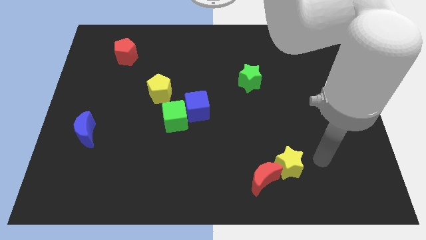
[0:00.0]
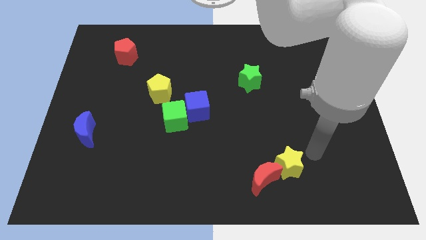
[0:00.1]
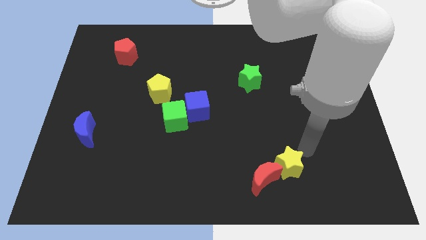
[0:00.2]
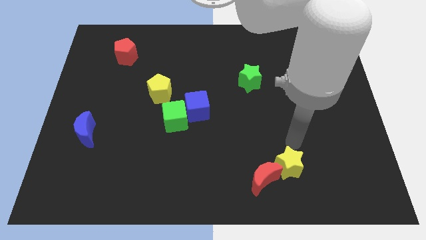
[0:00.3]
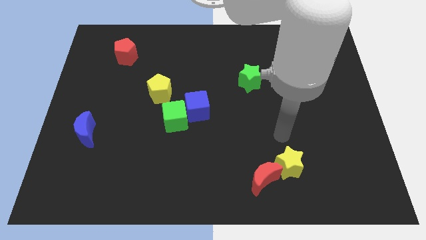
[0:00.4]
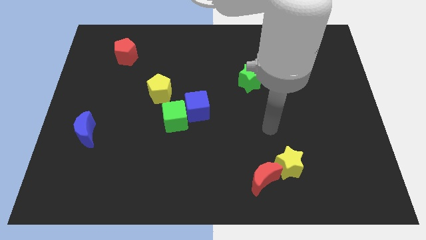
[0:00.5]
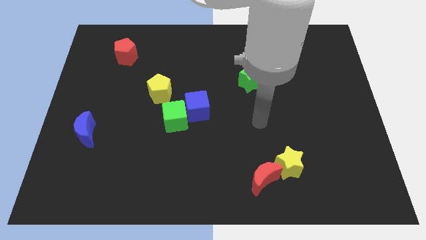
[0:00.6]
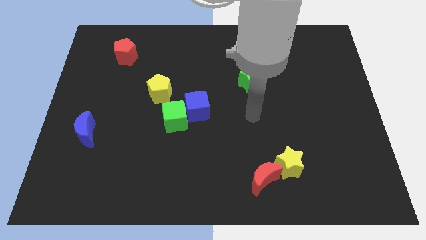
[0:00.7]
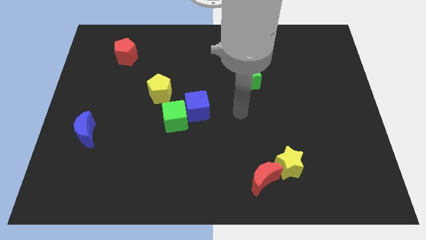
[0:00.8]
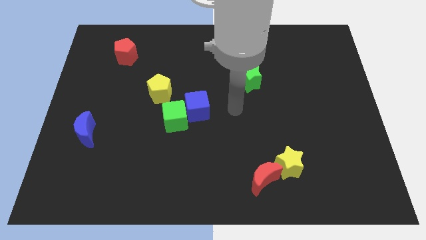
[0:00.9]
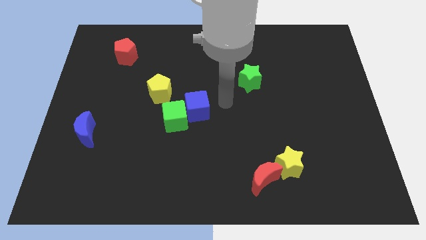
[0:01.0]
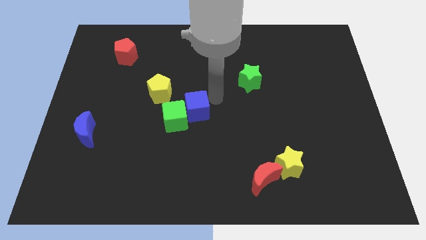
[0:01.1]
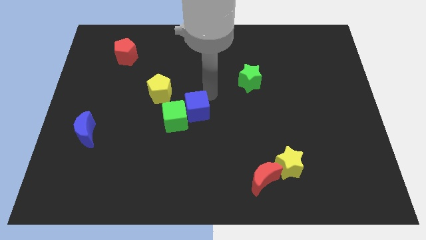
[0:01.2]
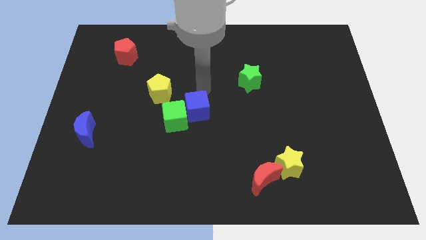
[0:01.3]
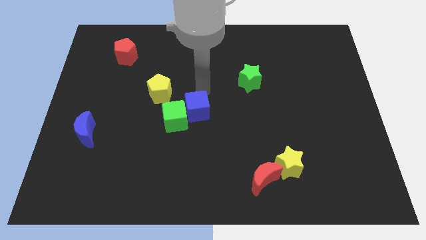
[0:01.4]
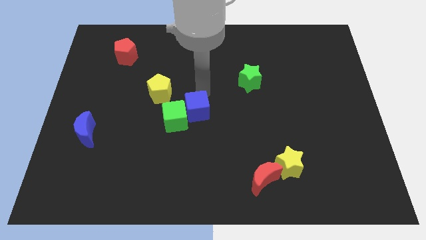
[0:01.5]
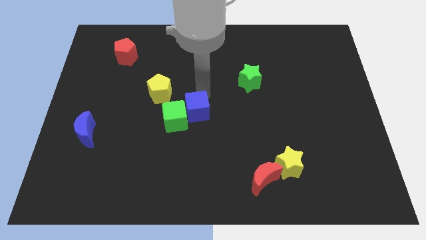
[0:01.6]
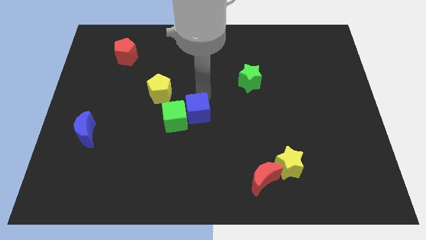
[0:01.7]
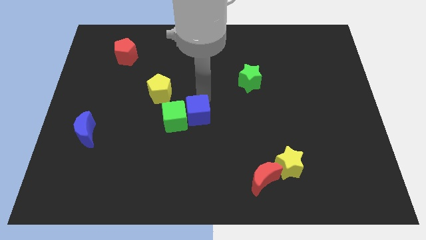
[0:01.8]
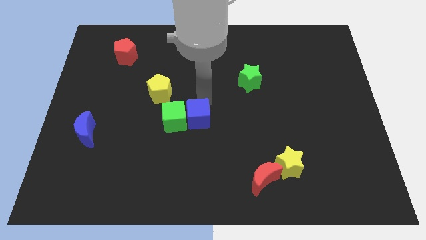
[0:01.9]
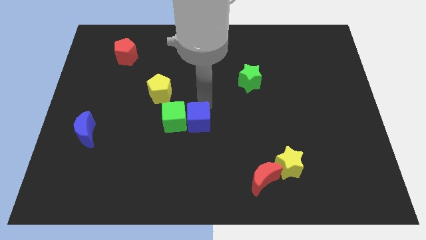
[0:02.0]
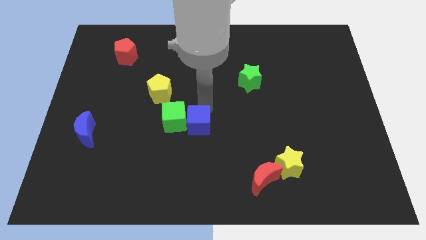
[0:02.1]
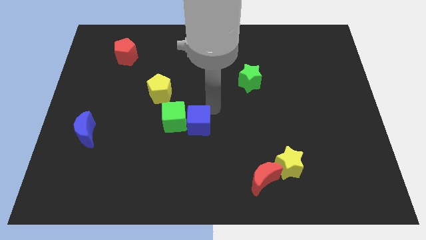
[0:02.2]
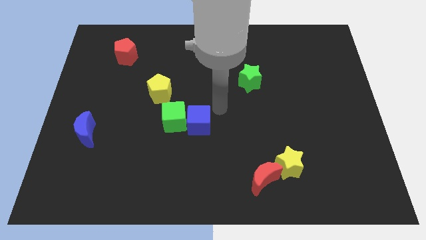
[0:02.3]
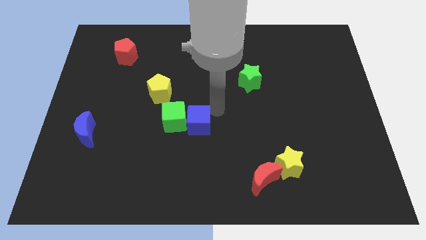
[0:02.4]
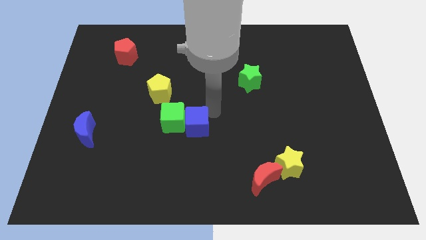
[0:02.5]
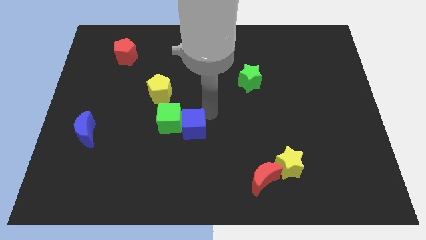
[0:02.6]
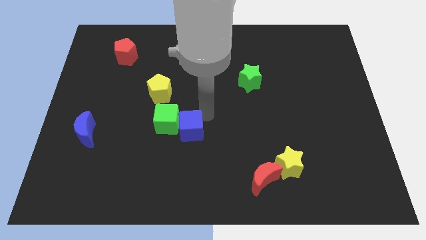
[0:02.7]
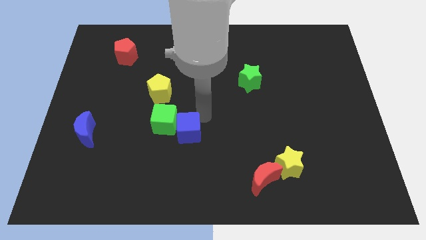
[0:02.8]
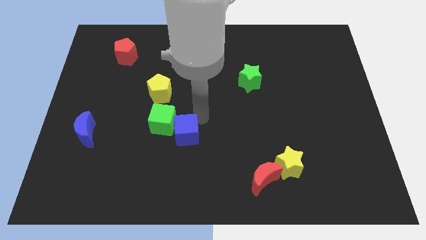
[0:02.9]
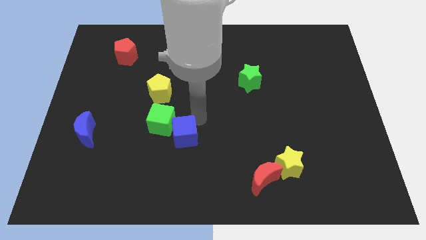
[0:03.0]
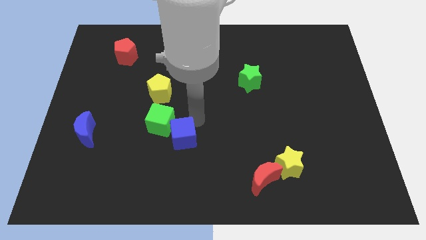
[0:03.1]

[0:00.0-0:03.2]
move the blue cube downwards and then to the left a bit

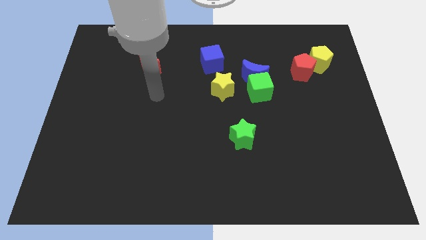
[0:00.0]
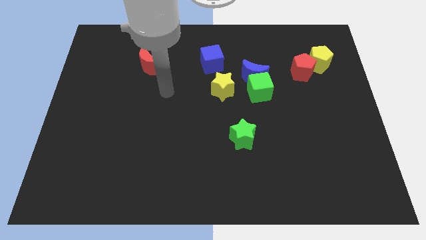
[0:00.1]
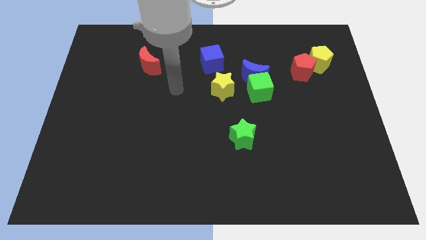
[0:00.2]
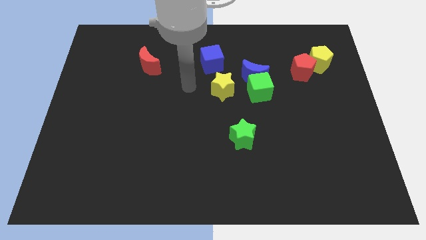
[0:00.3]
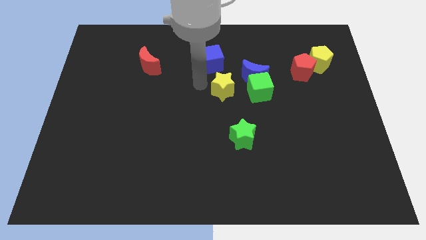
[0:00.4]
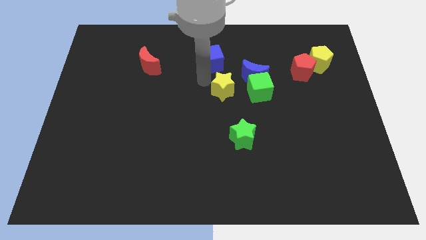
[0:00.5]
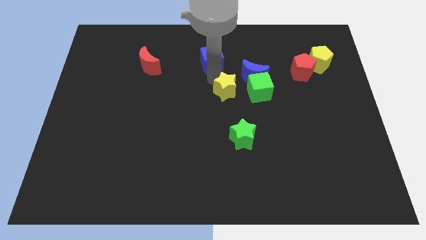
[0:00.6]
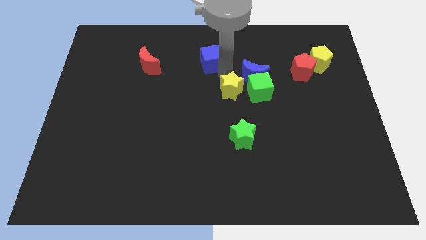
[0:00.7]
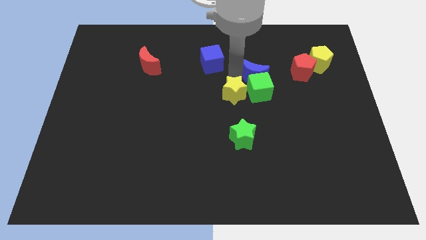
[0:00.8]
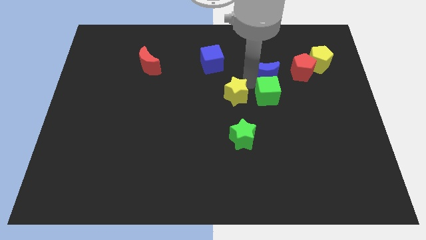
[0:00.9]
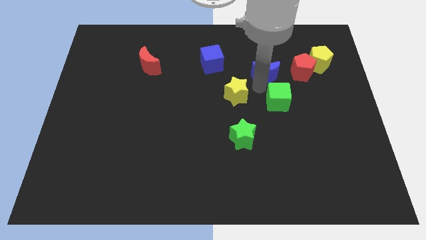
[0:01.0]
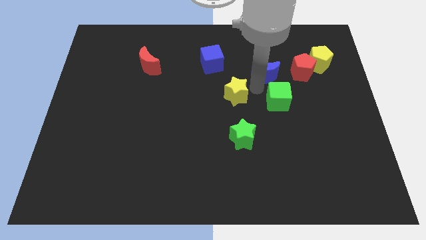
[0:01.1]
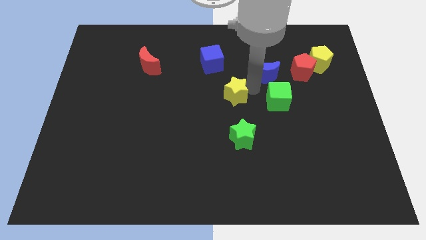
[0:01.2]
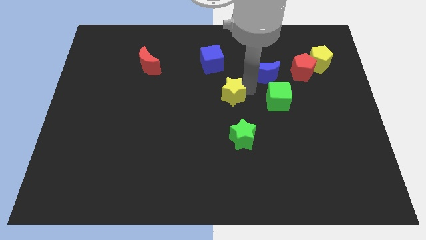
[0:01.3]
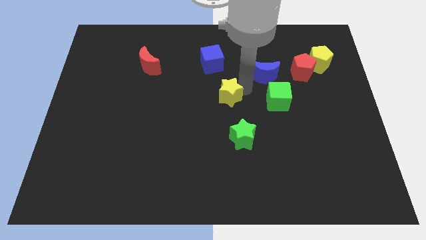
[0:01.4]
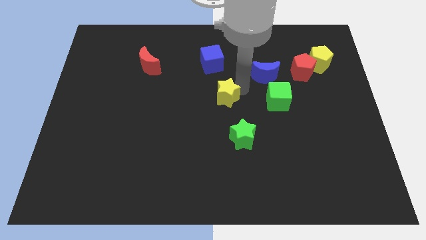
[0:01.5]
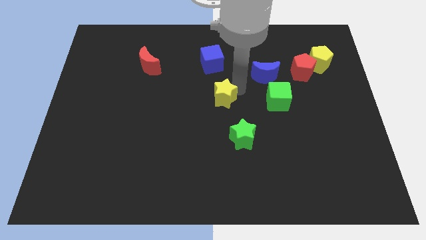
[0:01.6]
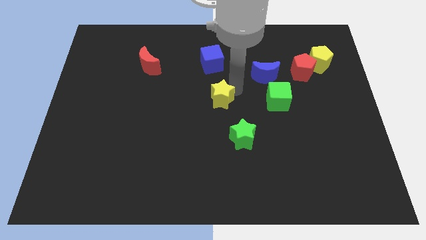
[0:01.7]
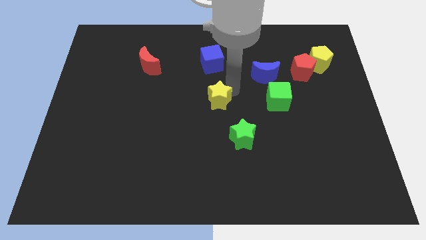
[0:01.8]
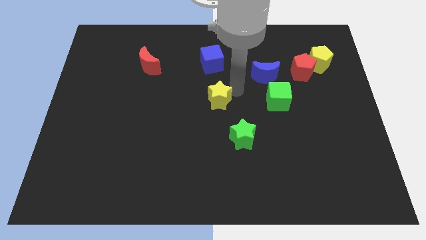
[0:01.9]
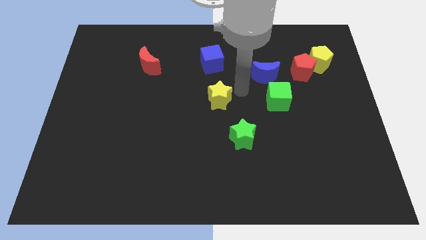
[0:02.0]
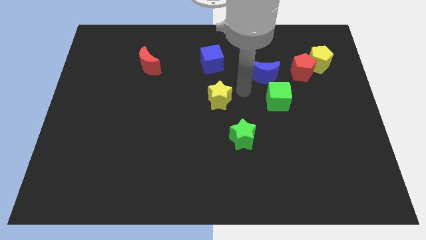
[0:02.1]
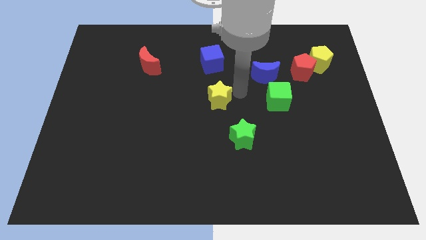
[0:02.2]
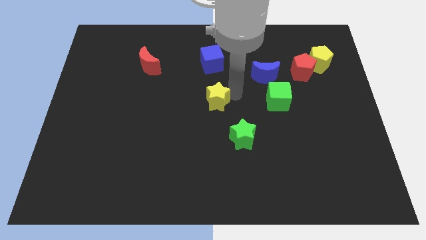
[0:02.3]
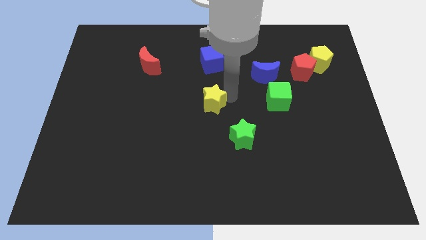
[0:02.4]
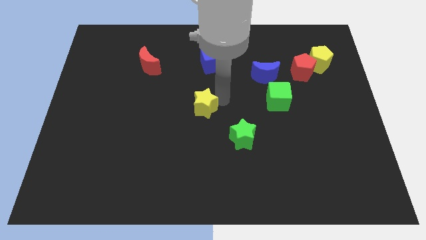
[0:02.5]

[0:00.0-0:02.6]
slightly slide the yellow star down and left

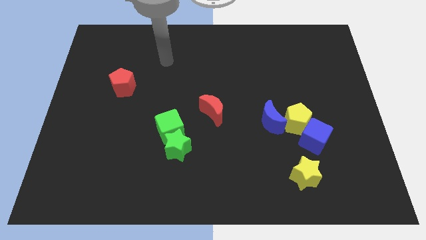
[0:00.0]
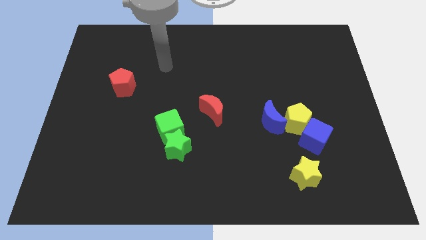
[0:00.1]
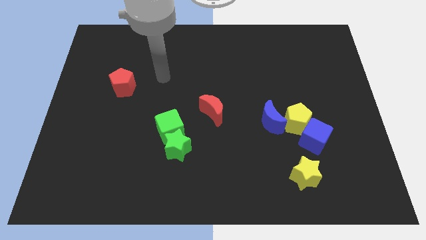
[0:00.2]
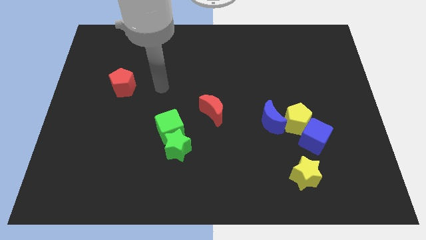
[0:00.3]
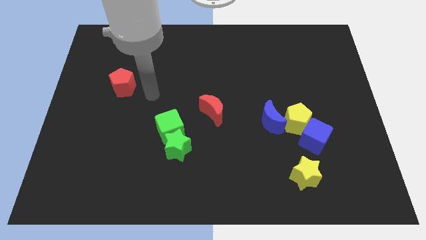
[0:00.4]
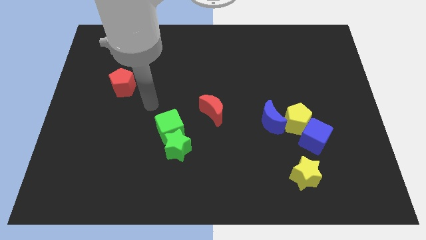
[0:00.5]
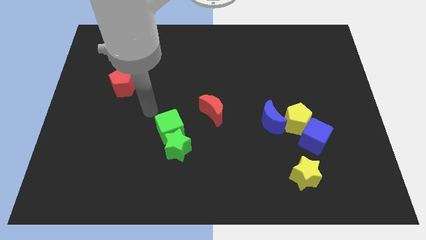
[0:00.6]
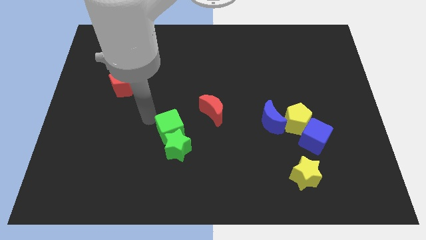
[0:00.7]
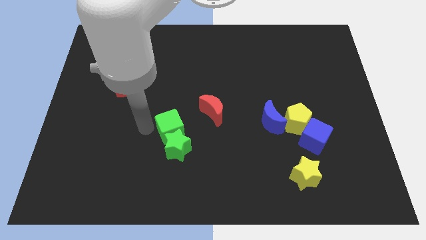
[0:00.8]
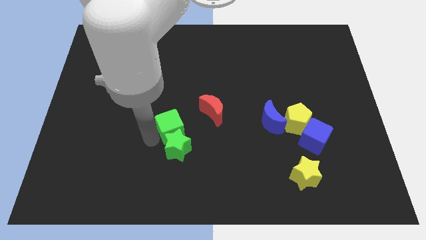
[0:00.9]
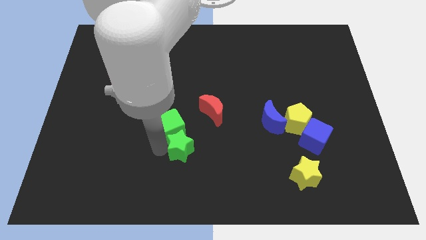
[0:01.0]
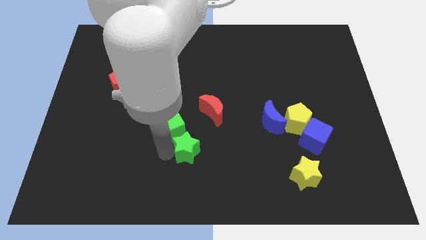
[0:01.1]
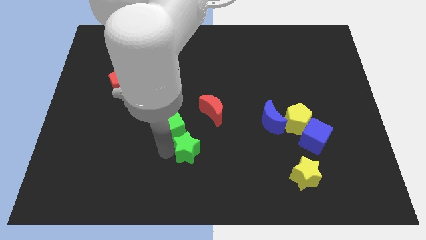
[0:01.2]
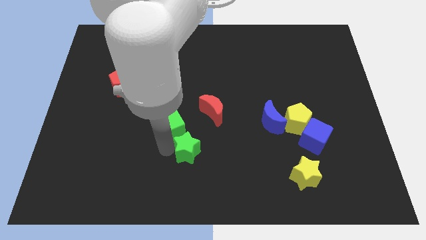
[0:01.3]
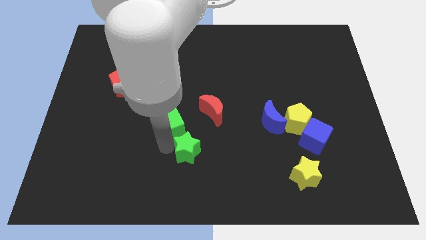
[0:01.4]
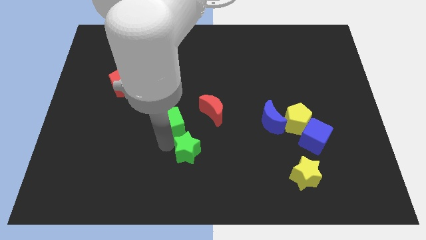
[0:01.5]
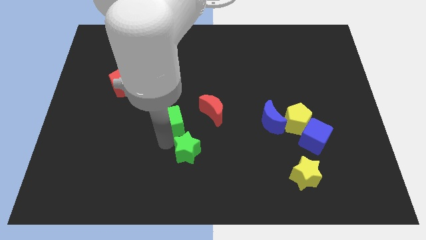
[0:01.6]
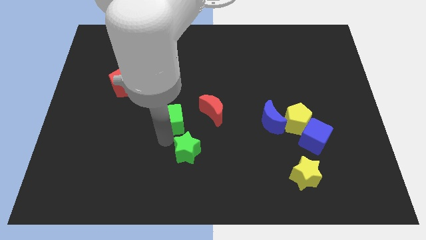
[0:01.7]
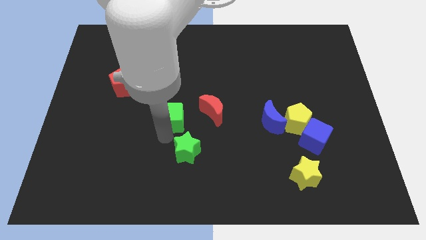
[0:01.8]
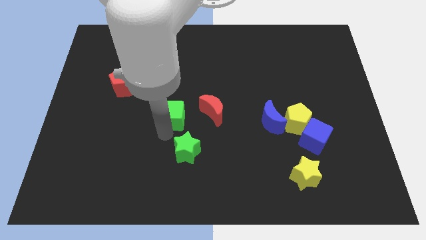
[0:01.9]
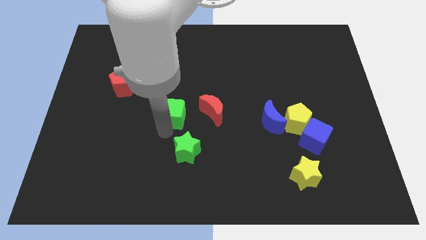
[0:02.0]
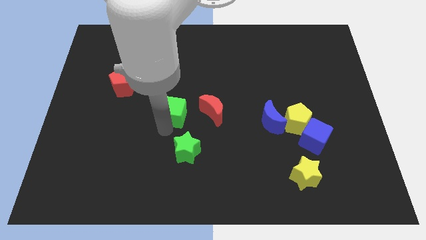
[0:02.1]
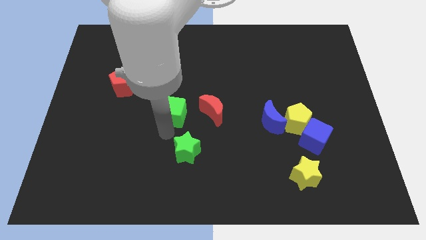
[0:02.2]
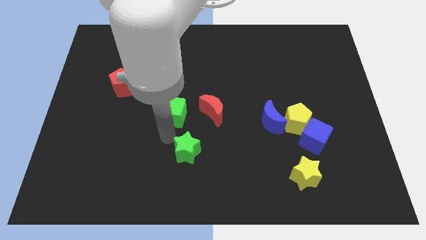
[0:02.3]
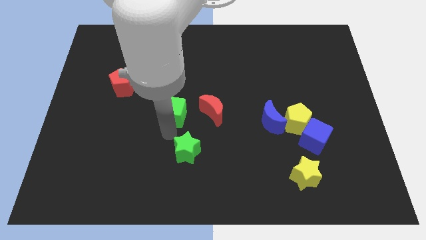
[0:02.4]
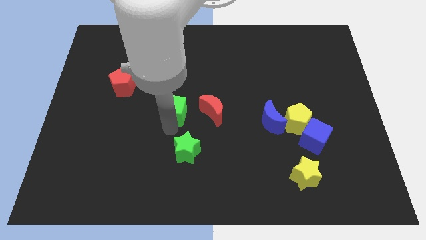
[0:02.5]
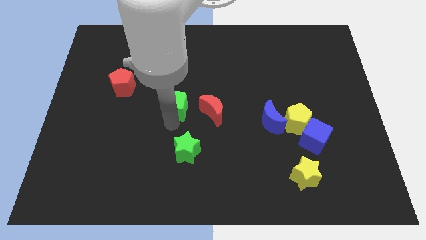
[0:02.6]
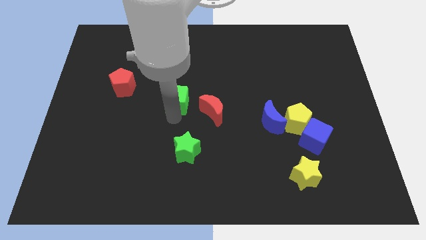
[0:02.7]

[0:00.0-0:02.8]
slide the green cube a little bit up
